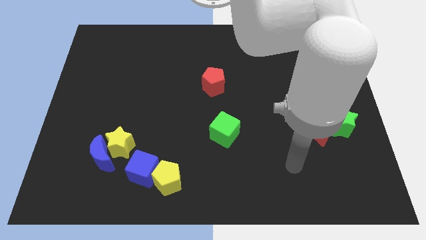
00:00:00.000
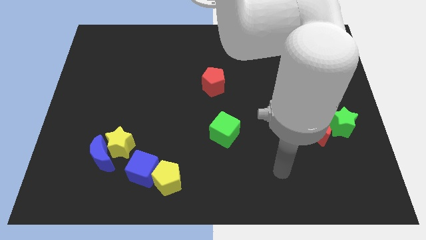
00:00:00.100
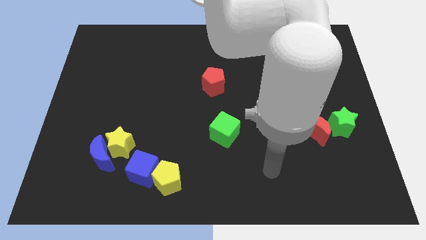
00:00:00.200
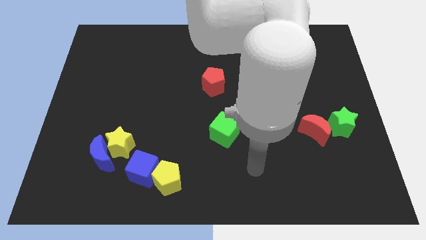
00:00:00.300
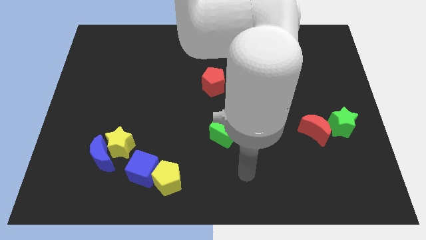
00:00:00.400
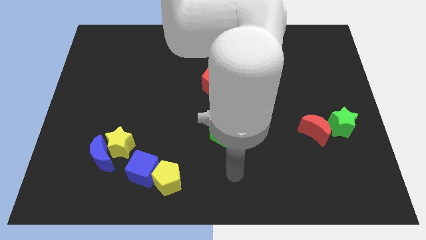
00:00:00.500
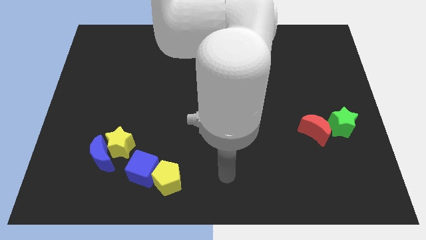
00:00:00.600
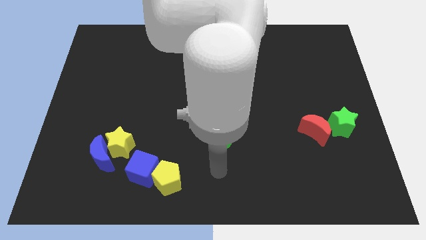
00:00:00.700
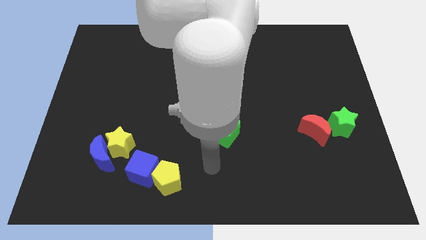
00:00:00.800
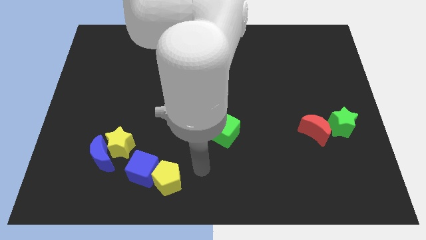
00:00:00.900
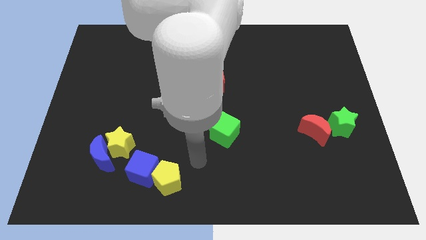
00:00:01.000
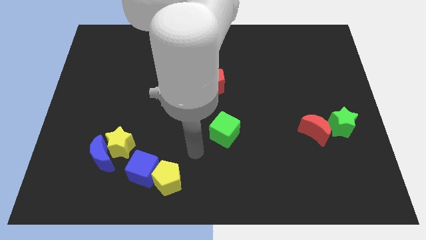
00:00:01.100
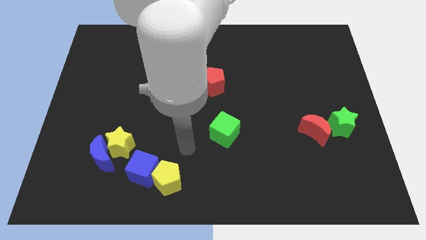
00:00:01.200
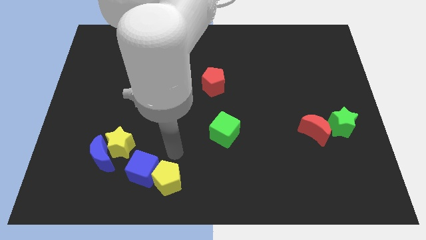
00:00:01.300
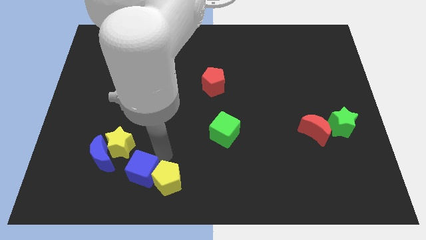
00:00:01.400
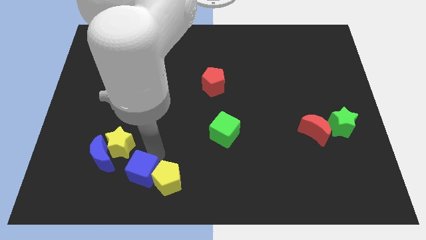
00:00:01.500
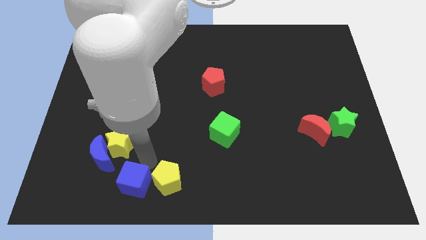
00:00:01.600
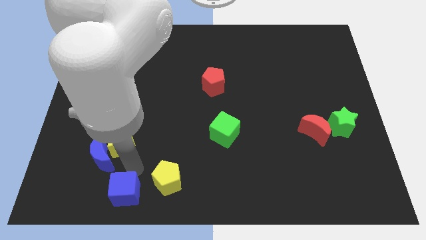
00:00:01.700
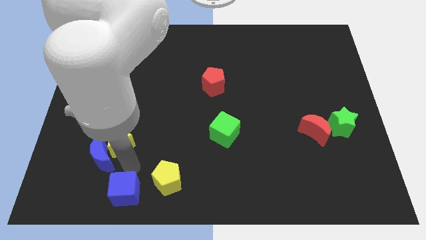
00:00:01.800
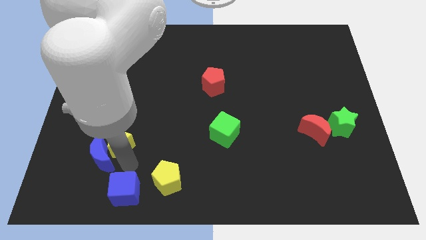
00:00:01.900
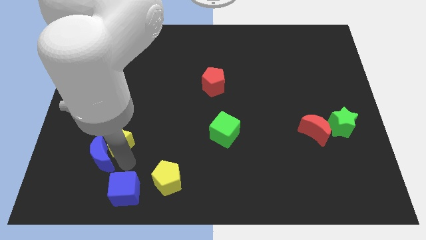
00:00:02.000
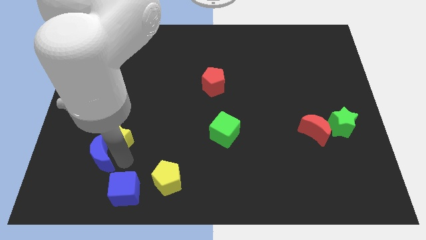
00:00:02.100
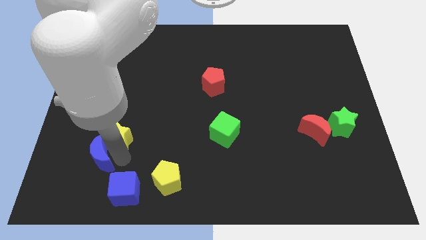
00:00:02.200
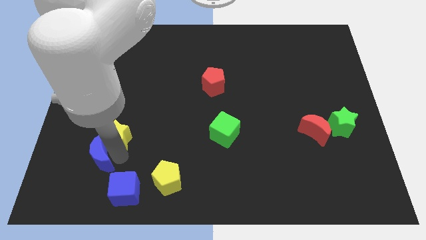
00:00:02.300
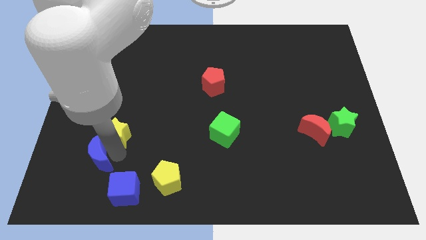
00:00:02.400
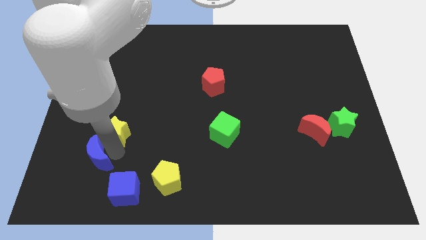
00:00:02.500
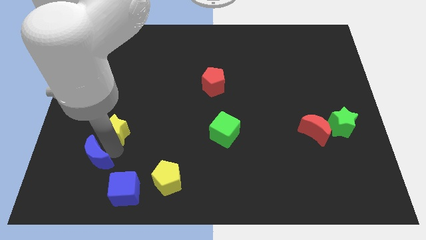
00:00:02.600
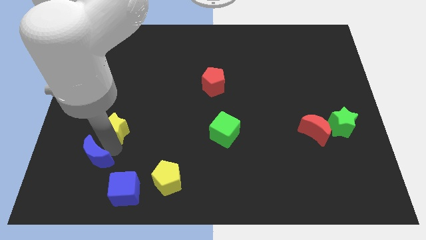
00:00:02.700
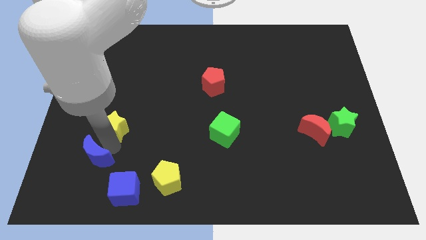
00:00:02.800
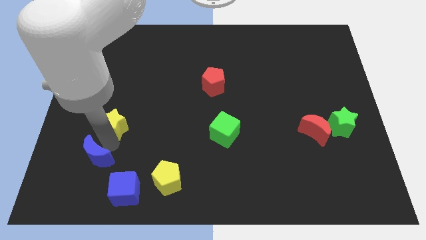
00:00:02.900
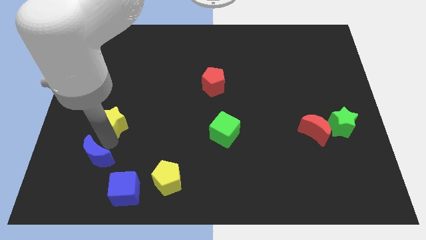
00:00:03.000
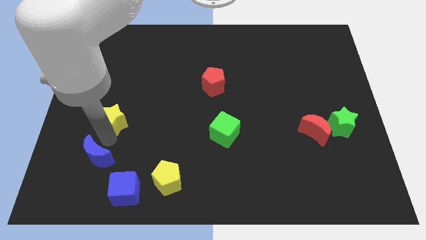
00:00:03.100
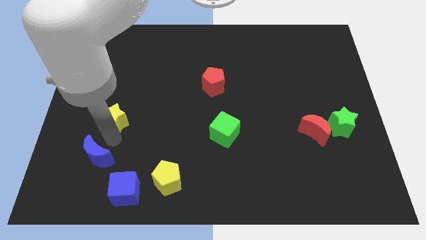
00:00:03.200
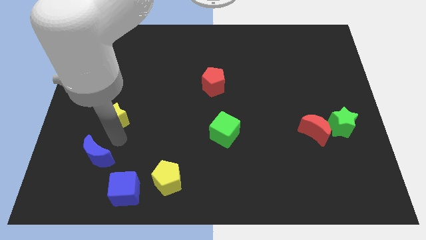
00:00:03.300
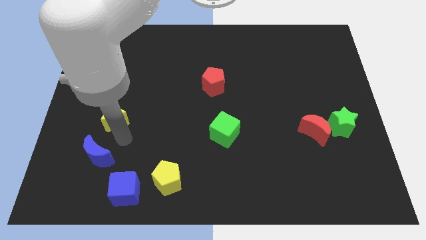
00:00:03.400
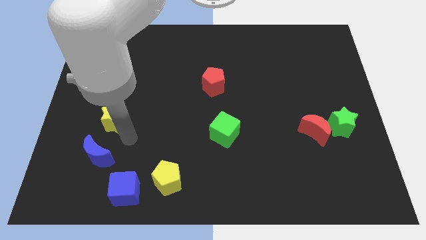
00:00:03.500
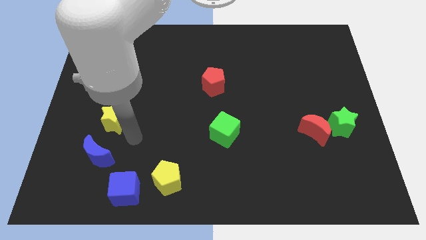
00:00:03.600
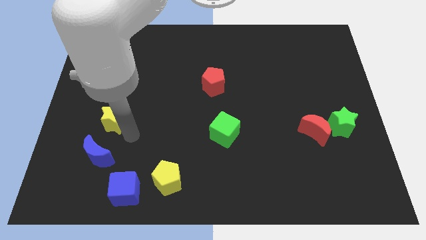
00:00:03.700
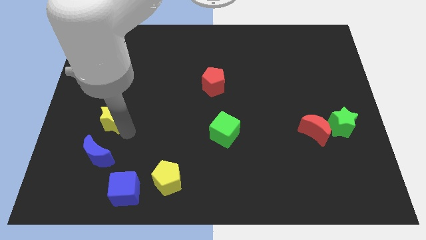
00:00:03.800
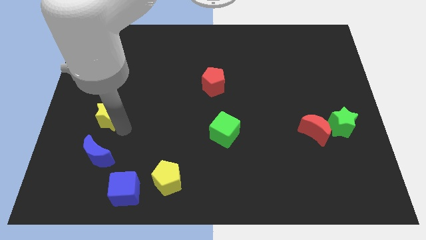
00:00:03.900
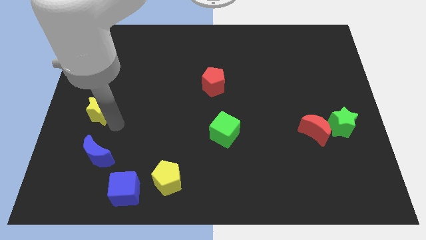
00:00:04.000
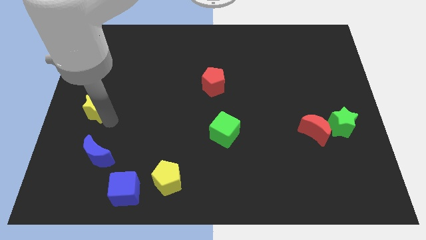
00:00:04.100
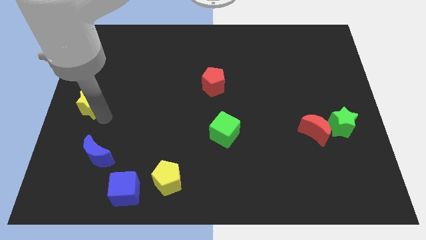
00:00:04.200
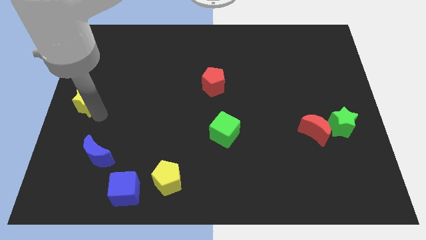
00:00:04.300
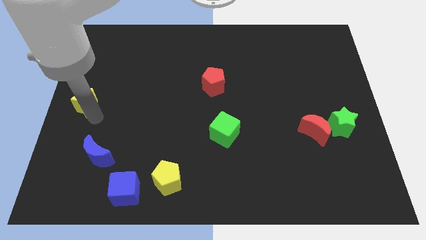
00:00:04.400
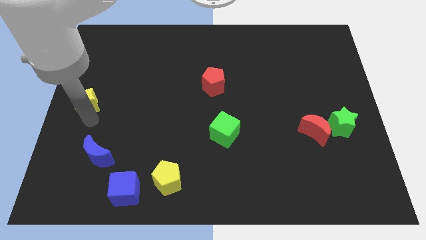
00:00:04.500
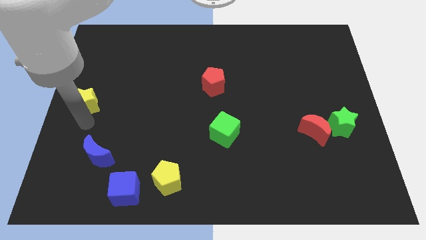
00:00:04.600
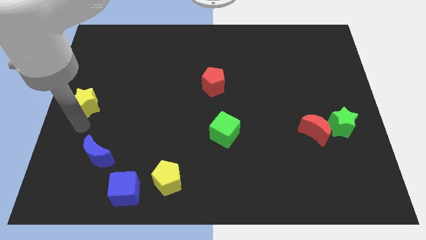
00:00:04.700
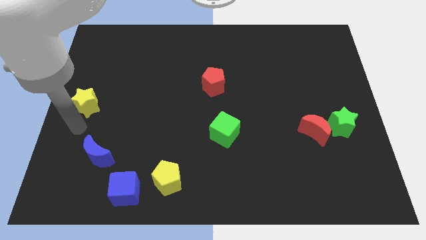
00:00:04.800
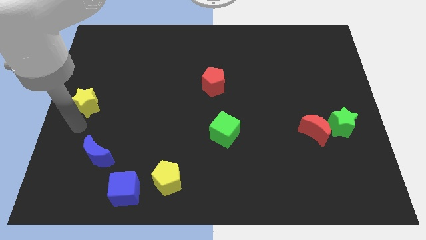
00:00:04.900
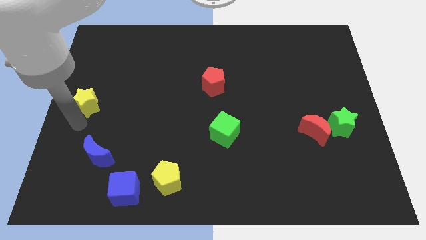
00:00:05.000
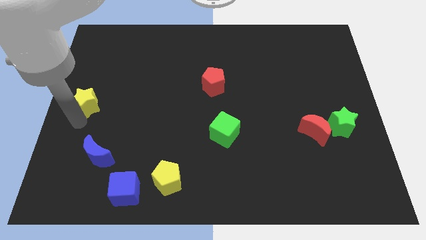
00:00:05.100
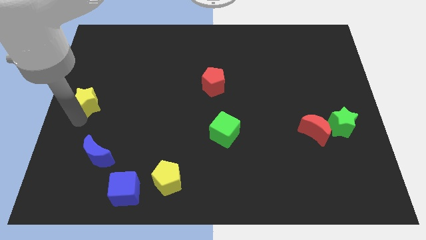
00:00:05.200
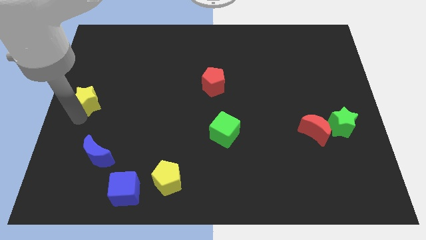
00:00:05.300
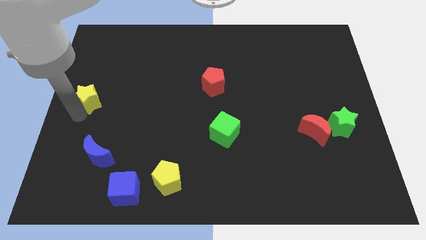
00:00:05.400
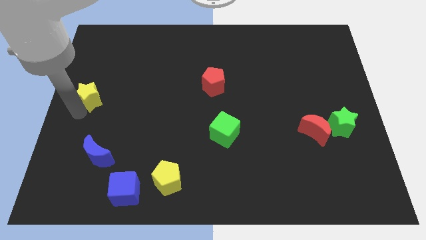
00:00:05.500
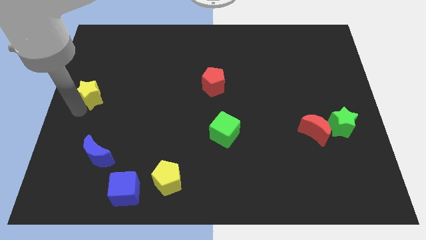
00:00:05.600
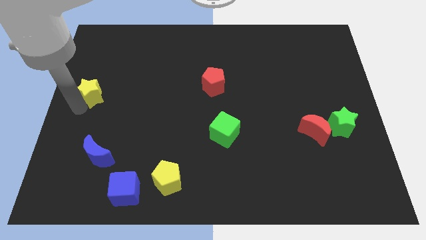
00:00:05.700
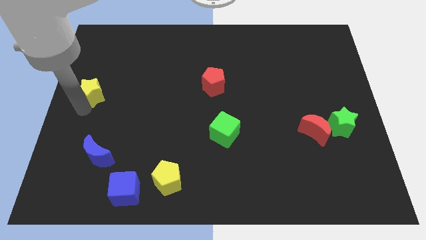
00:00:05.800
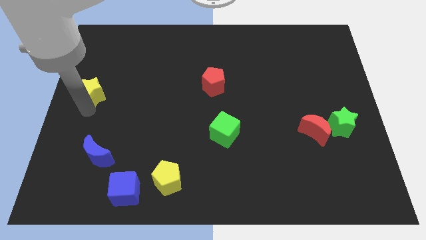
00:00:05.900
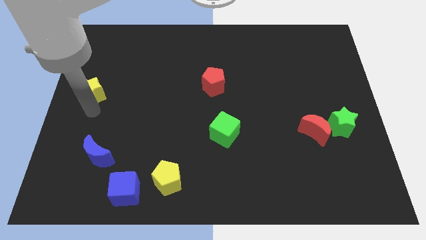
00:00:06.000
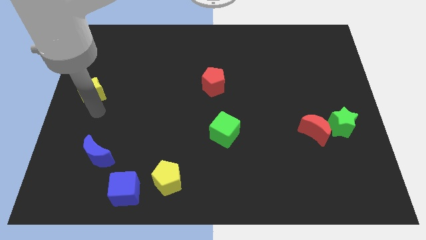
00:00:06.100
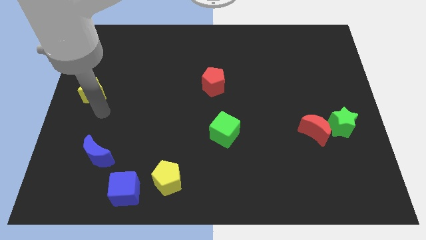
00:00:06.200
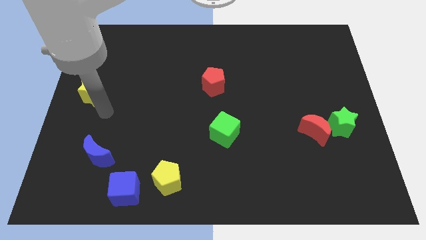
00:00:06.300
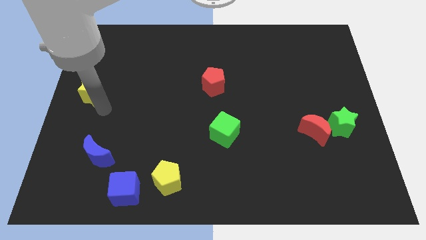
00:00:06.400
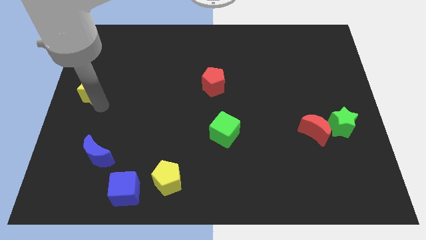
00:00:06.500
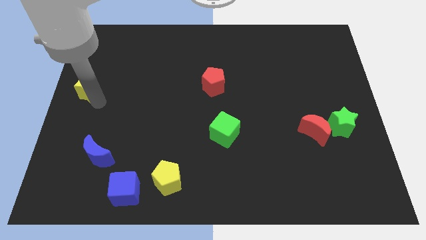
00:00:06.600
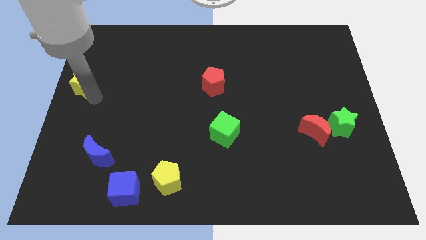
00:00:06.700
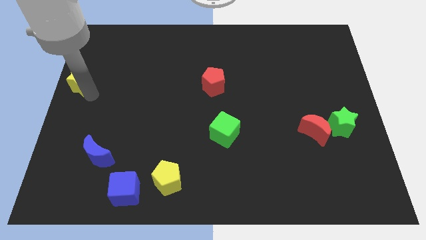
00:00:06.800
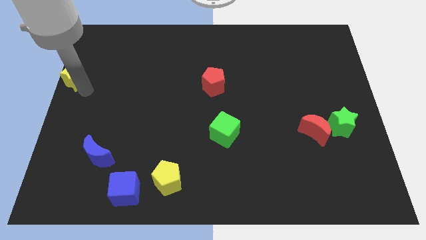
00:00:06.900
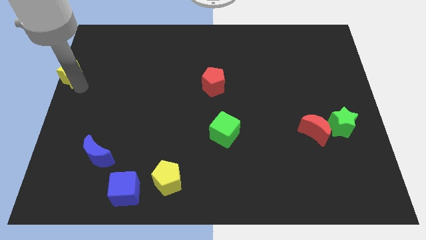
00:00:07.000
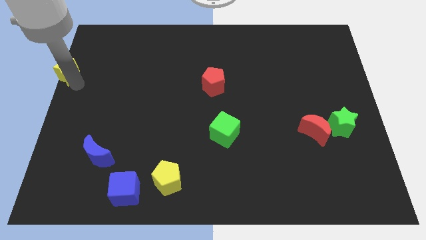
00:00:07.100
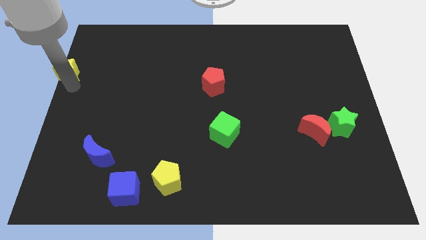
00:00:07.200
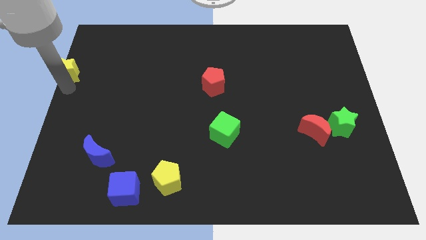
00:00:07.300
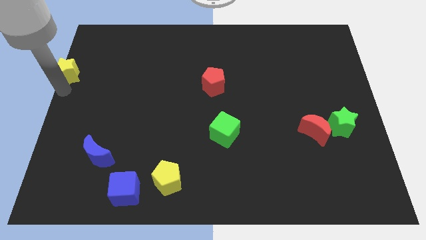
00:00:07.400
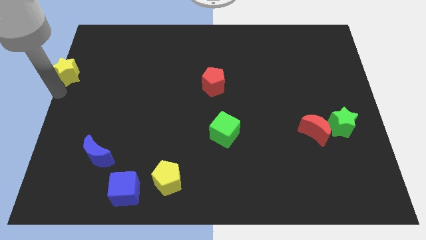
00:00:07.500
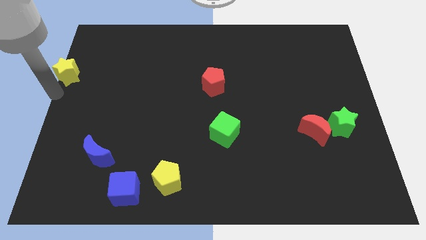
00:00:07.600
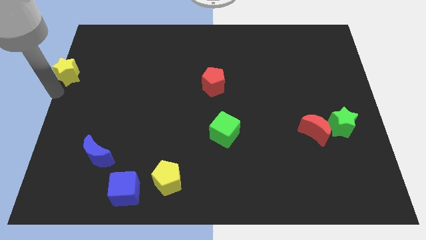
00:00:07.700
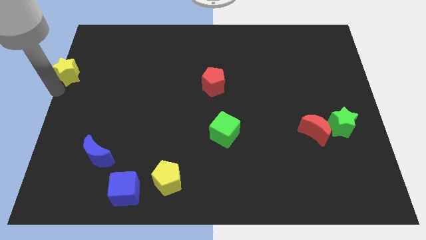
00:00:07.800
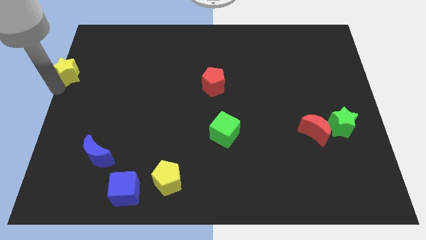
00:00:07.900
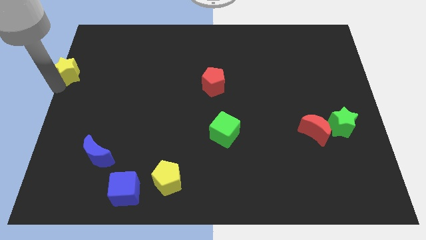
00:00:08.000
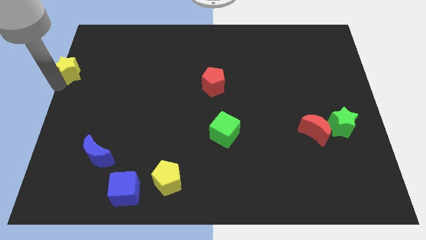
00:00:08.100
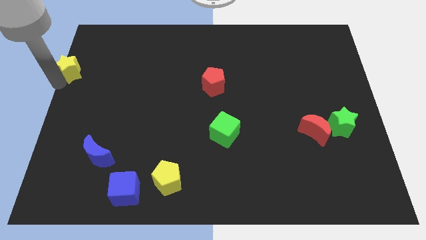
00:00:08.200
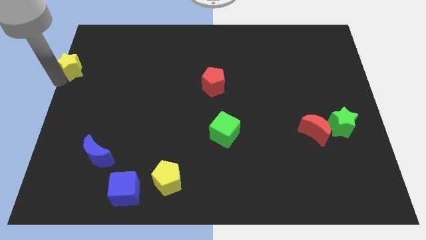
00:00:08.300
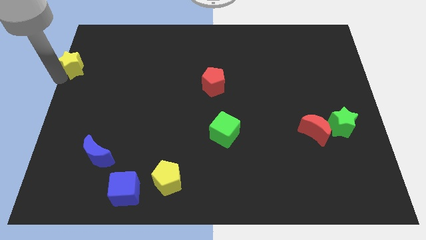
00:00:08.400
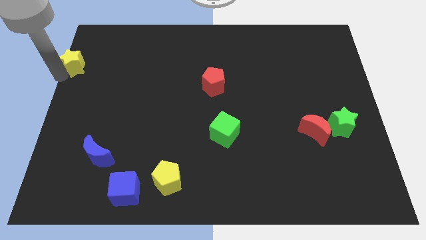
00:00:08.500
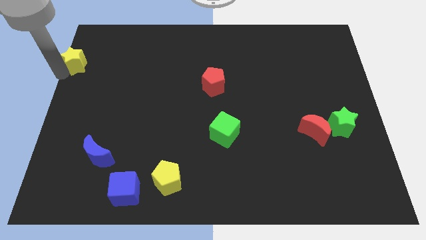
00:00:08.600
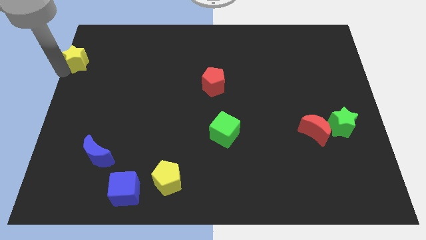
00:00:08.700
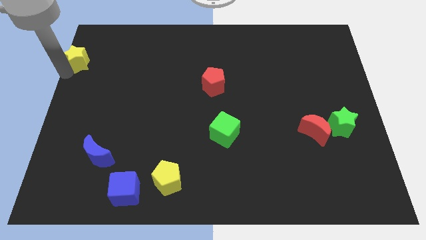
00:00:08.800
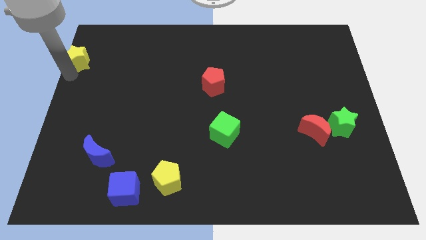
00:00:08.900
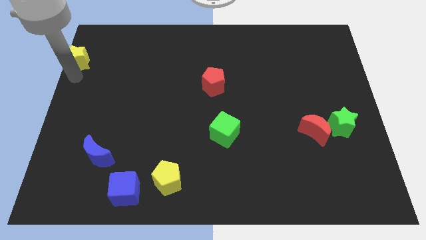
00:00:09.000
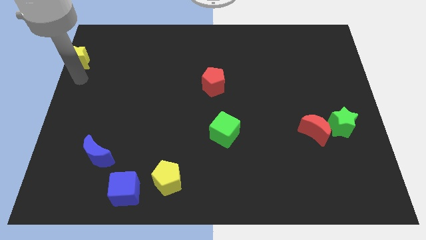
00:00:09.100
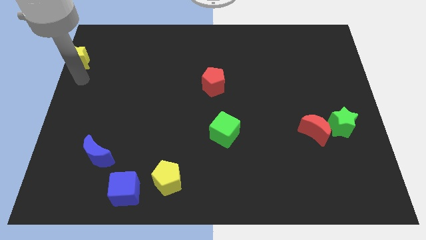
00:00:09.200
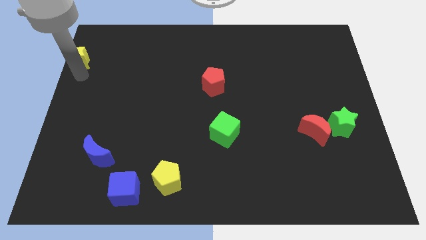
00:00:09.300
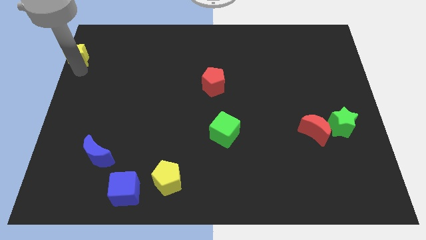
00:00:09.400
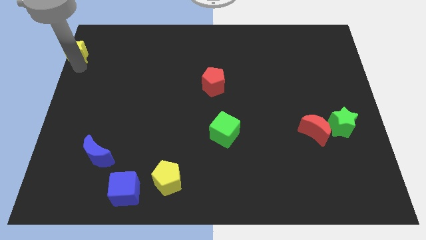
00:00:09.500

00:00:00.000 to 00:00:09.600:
push the yellow star to the upper left corner
